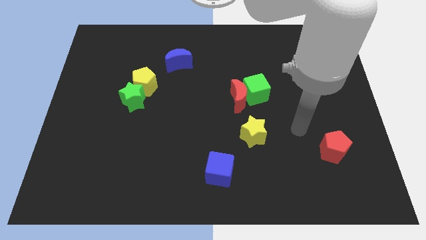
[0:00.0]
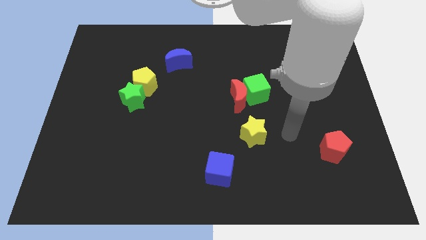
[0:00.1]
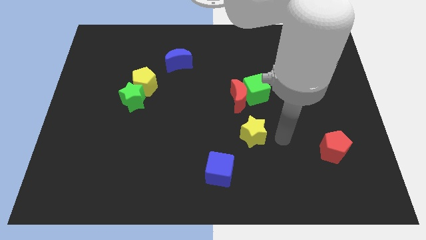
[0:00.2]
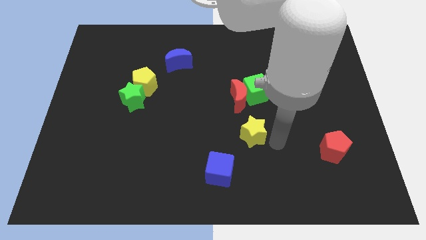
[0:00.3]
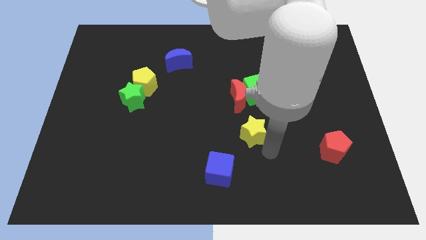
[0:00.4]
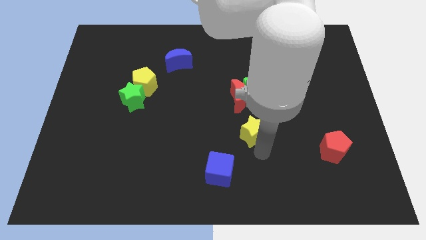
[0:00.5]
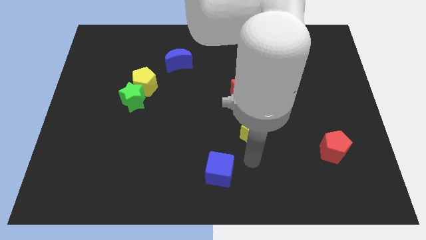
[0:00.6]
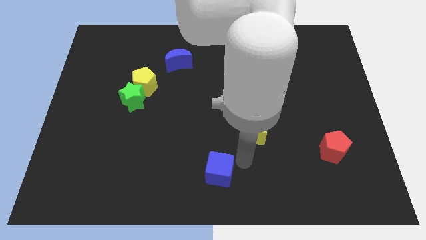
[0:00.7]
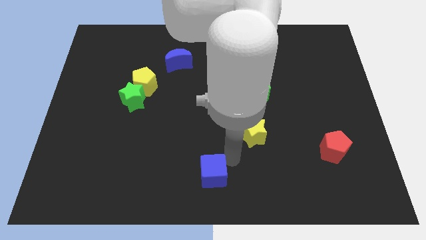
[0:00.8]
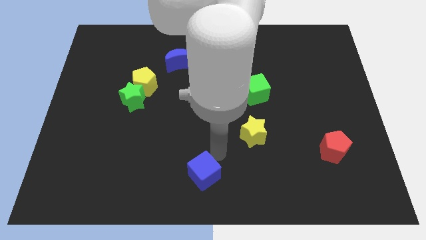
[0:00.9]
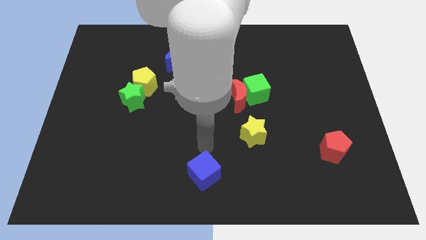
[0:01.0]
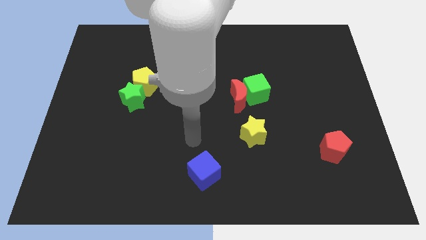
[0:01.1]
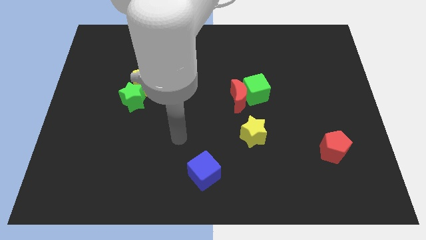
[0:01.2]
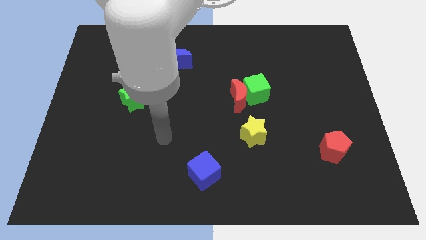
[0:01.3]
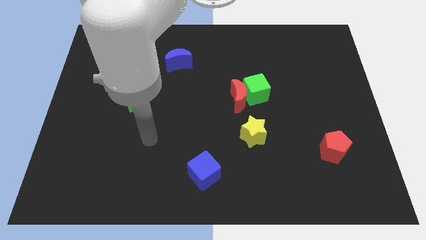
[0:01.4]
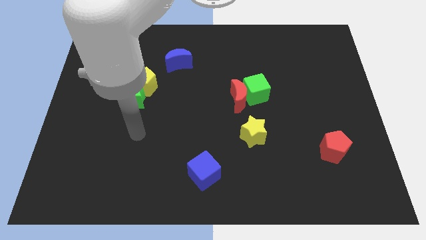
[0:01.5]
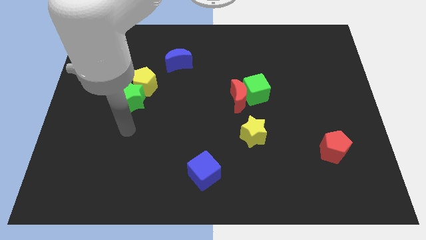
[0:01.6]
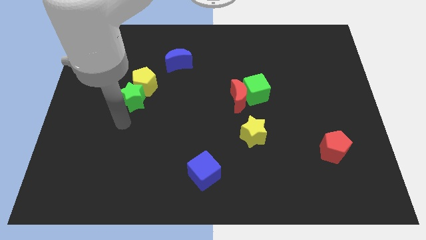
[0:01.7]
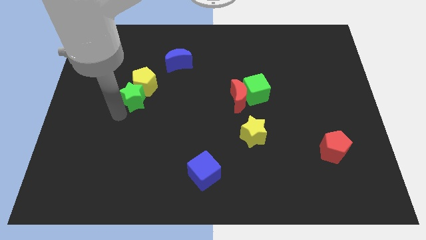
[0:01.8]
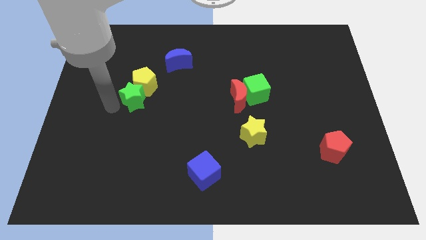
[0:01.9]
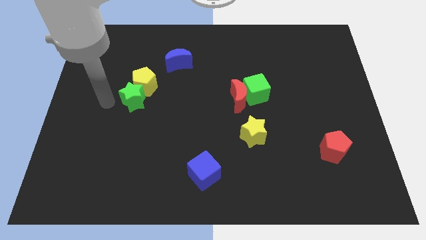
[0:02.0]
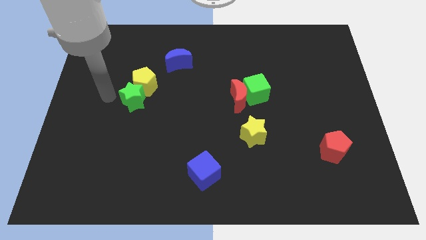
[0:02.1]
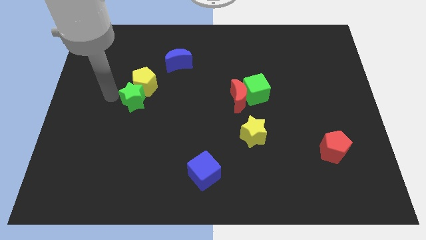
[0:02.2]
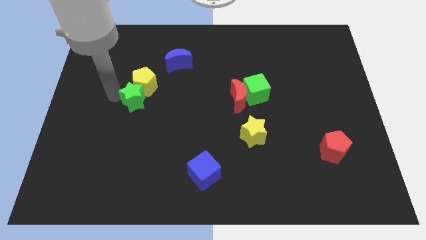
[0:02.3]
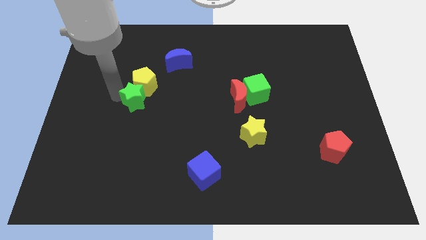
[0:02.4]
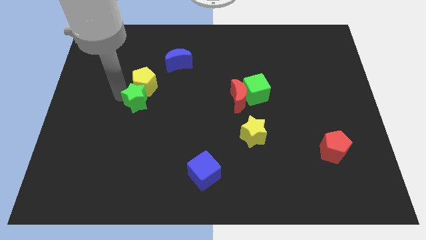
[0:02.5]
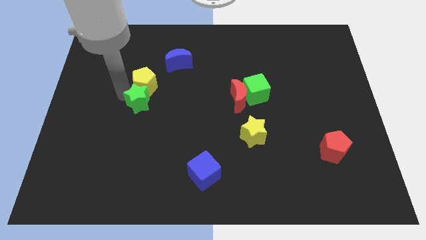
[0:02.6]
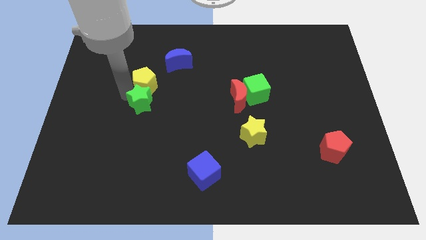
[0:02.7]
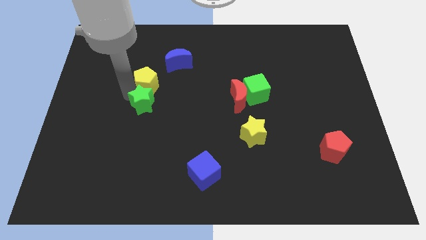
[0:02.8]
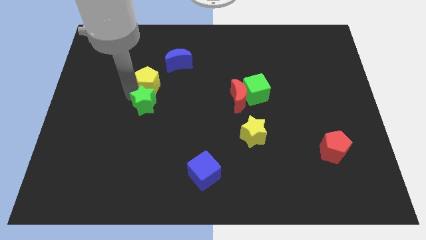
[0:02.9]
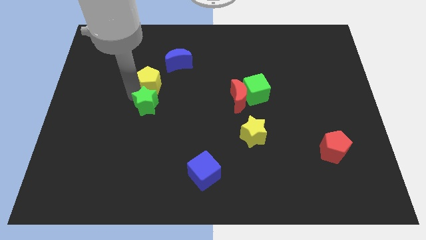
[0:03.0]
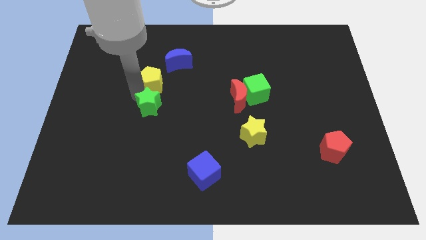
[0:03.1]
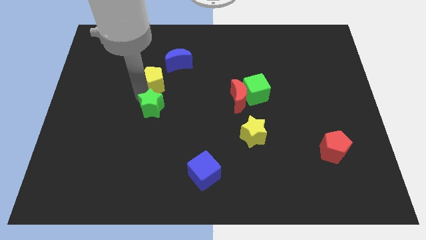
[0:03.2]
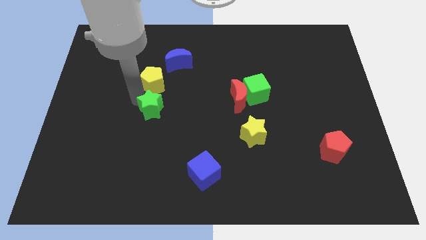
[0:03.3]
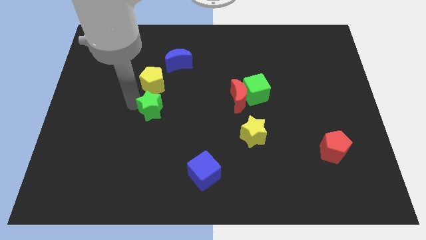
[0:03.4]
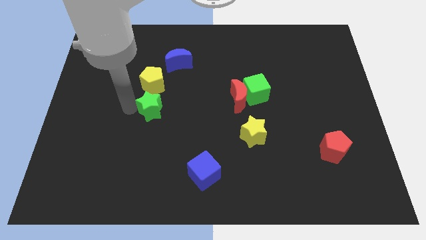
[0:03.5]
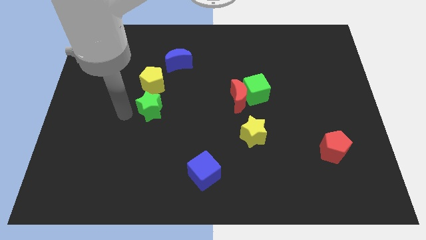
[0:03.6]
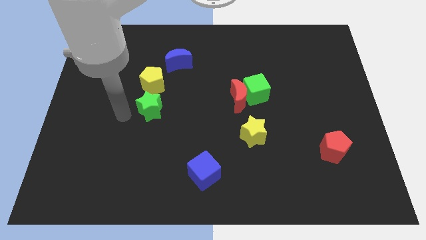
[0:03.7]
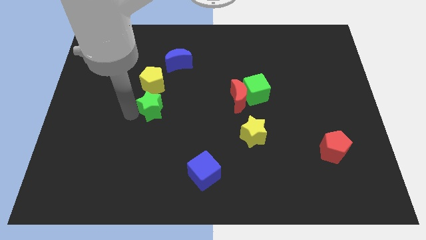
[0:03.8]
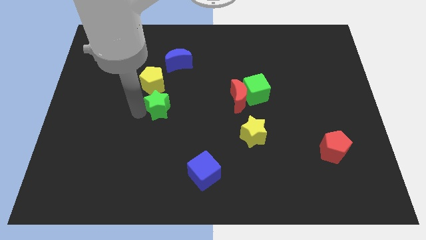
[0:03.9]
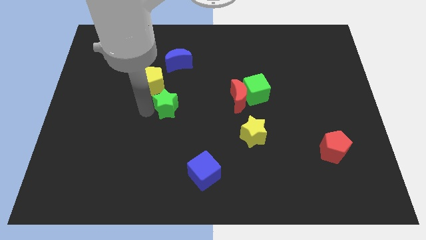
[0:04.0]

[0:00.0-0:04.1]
slightly move the green star right

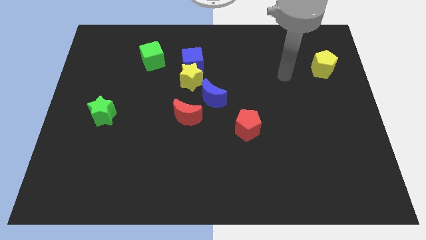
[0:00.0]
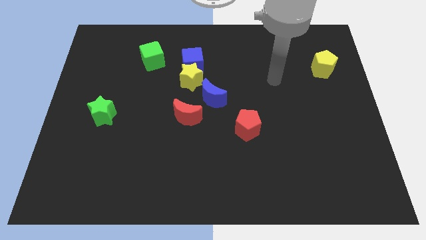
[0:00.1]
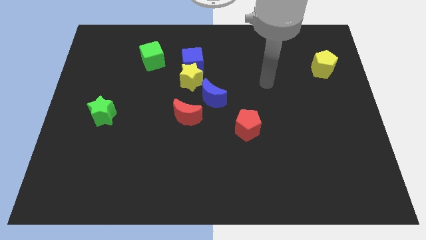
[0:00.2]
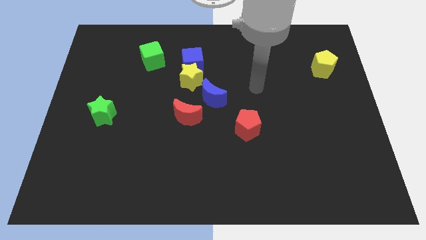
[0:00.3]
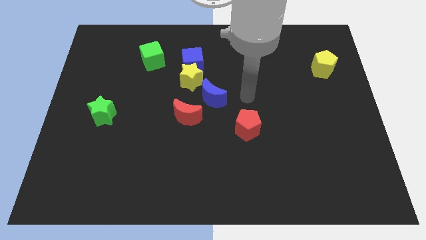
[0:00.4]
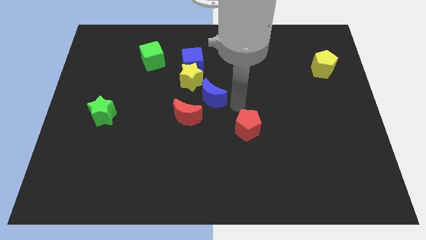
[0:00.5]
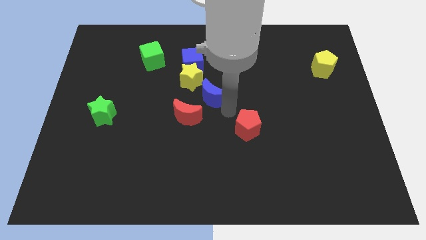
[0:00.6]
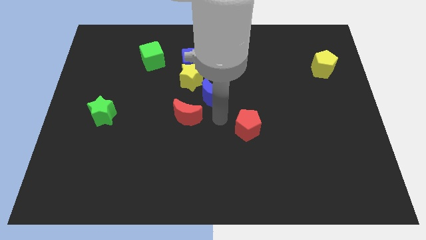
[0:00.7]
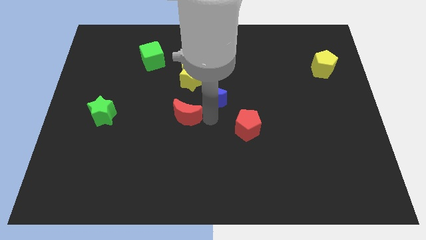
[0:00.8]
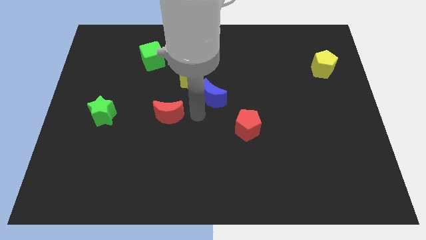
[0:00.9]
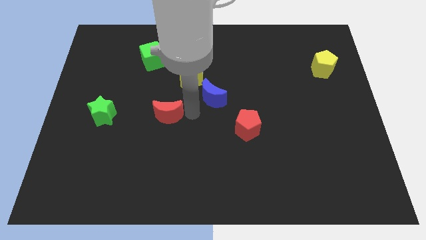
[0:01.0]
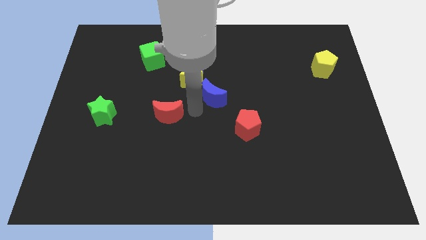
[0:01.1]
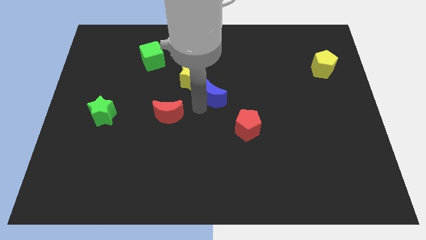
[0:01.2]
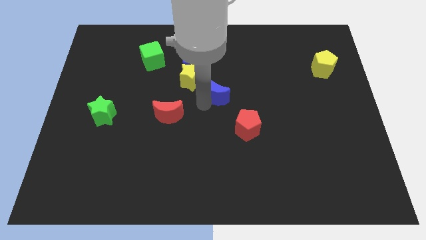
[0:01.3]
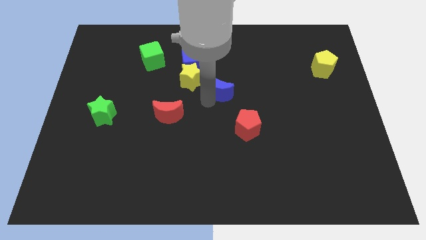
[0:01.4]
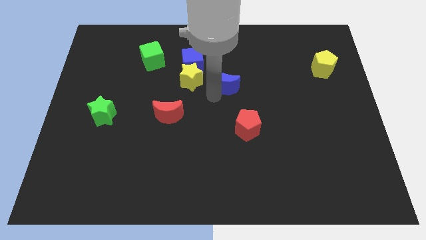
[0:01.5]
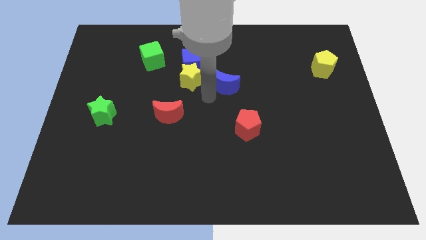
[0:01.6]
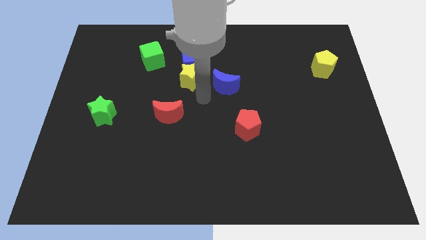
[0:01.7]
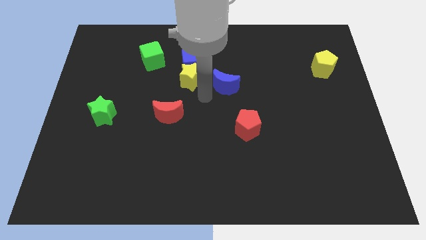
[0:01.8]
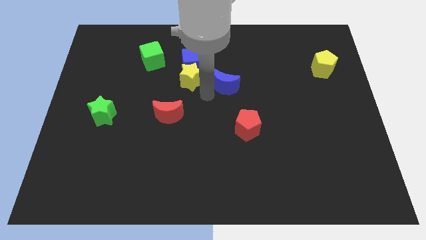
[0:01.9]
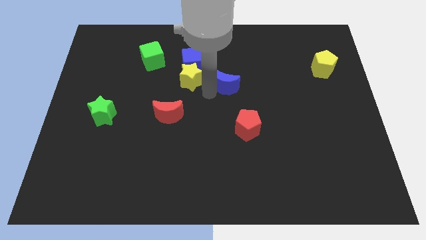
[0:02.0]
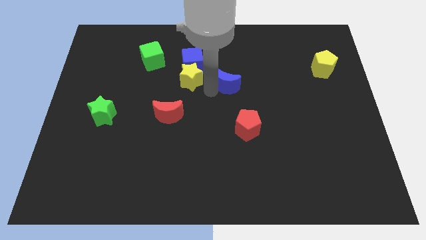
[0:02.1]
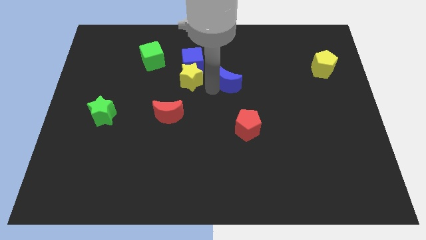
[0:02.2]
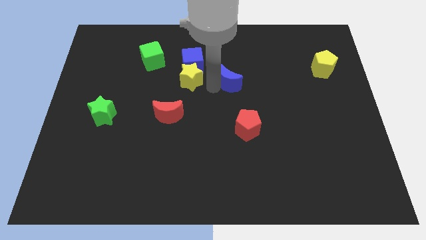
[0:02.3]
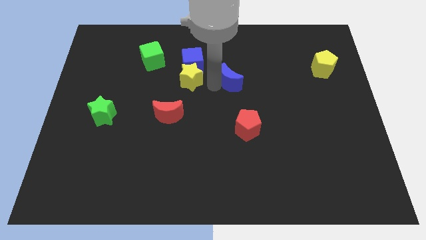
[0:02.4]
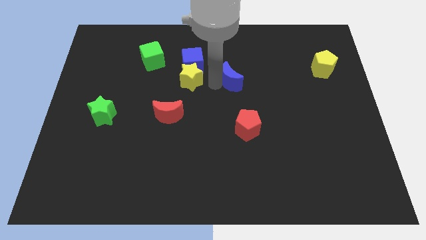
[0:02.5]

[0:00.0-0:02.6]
slide the blue moon up and right diagonally slightly

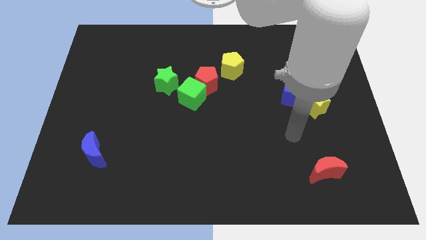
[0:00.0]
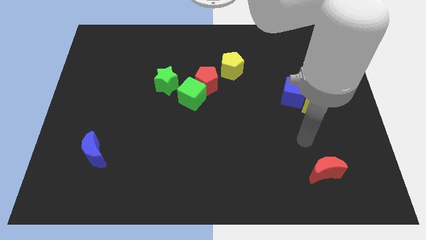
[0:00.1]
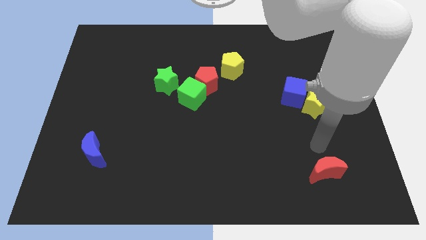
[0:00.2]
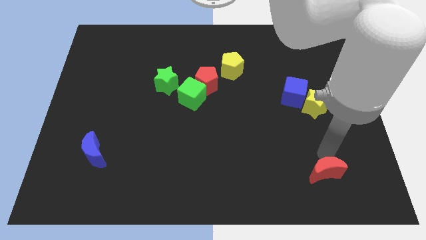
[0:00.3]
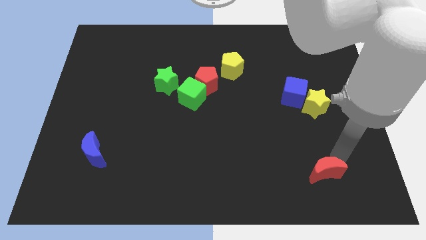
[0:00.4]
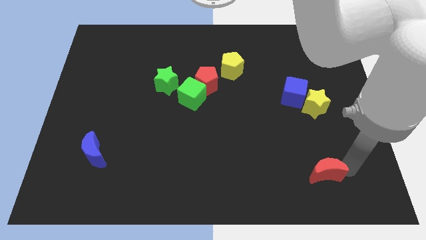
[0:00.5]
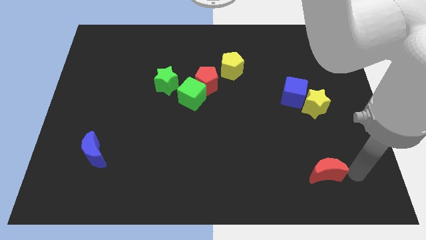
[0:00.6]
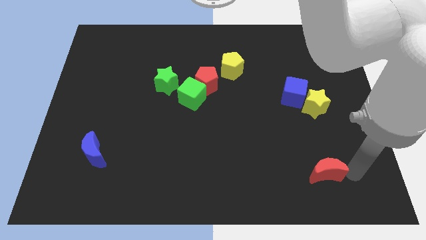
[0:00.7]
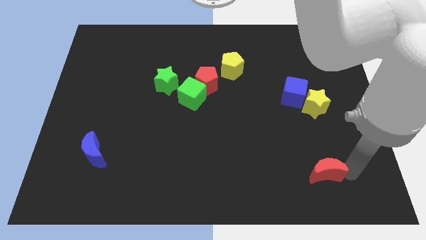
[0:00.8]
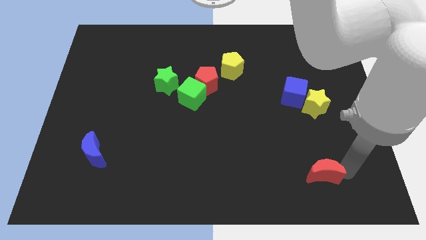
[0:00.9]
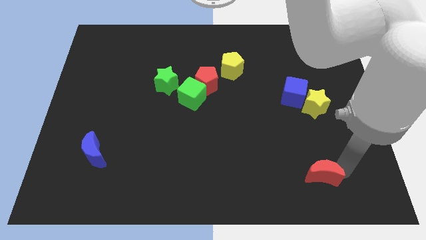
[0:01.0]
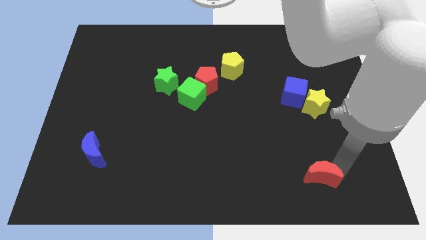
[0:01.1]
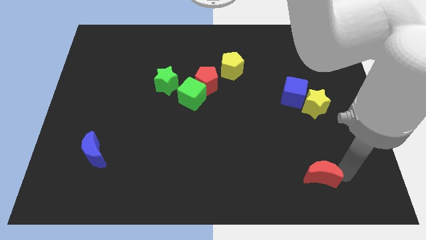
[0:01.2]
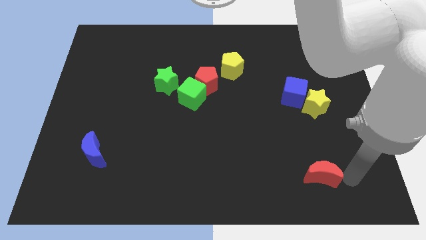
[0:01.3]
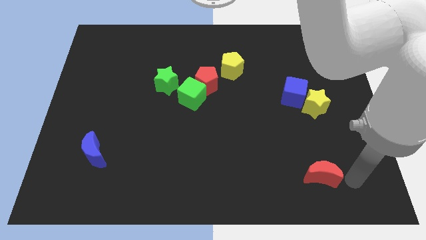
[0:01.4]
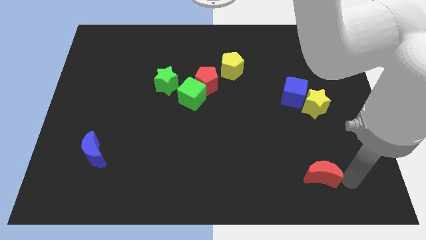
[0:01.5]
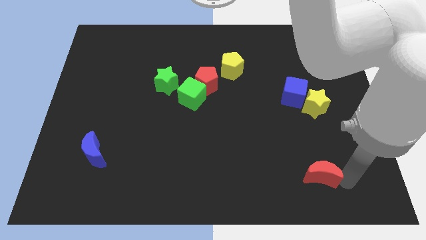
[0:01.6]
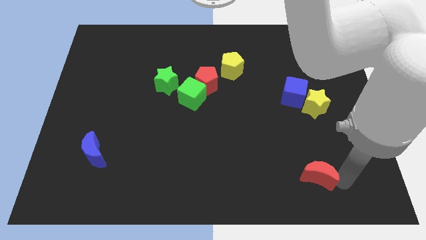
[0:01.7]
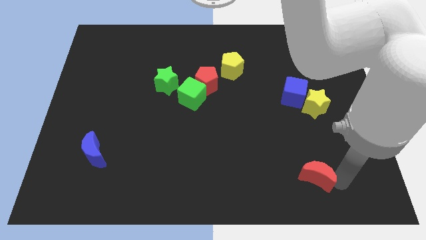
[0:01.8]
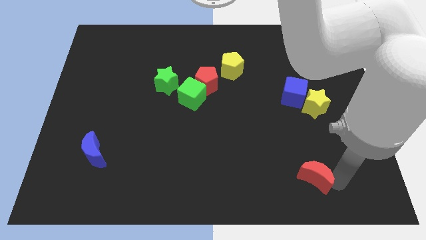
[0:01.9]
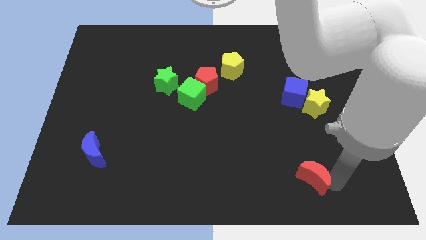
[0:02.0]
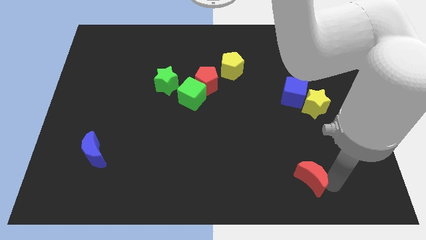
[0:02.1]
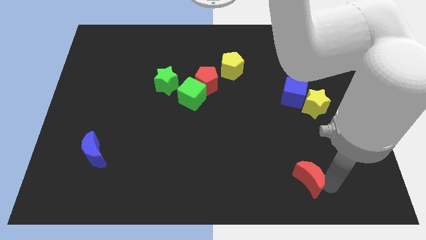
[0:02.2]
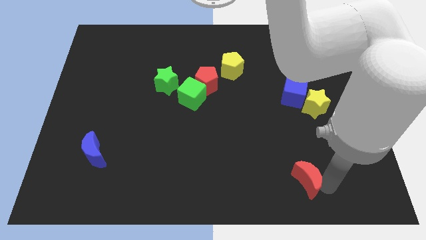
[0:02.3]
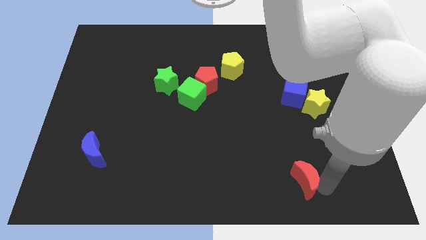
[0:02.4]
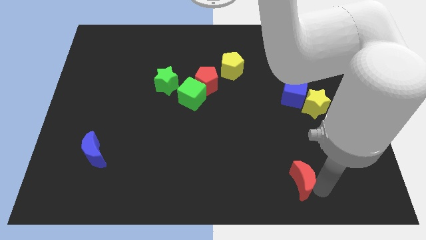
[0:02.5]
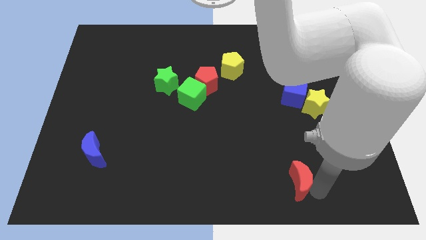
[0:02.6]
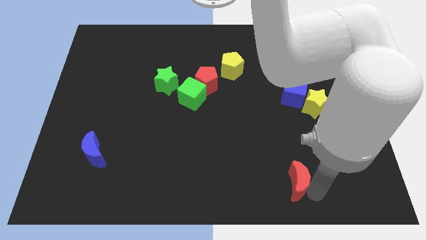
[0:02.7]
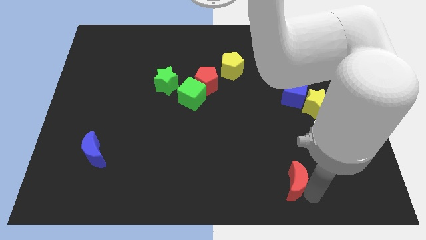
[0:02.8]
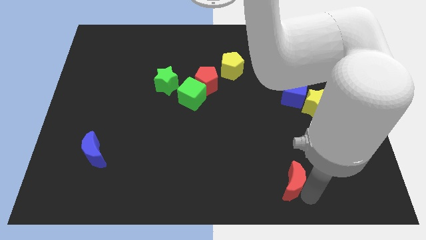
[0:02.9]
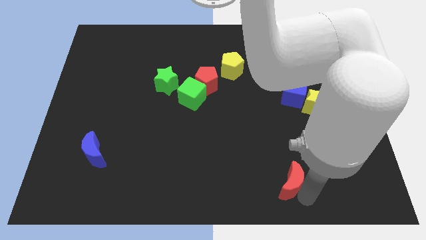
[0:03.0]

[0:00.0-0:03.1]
slightly push the red moon left
